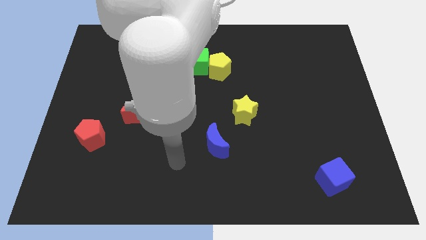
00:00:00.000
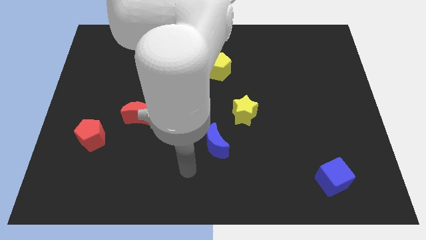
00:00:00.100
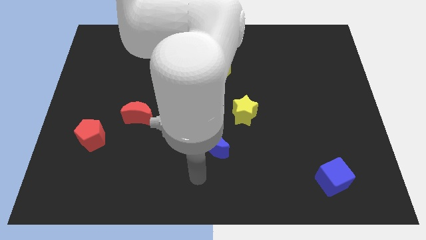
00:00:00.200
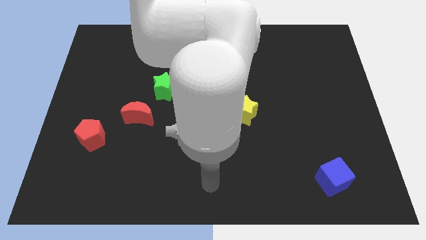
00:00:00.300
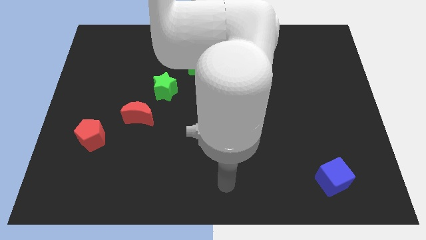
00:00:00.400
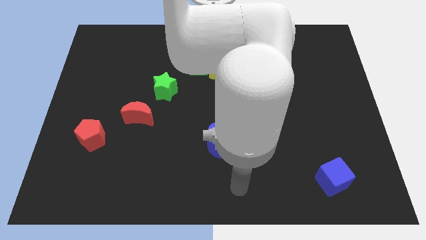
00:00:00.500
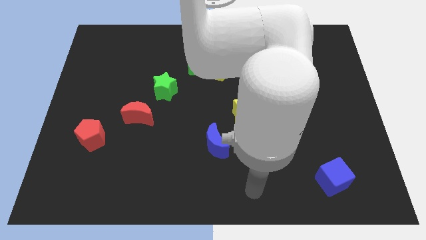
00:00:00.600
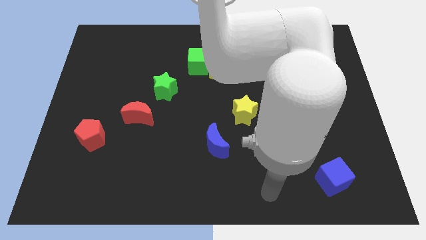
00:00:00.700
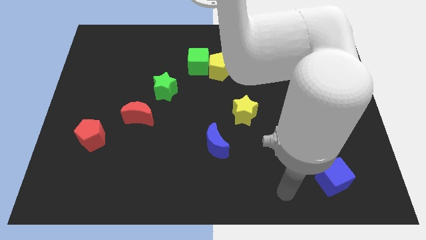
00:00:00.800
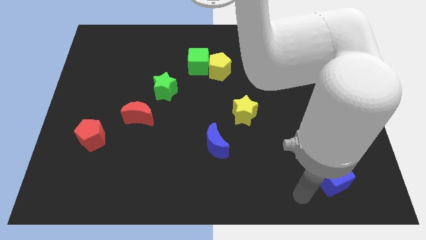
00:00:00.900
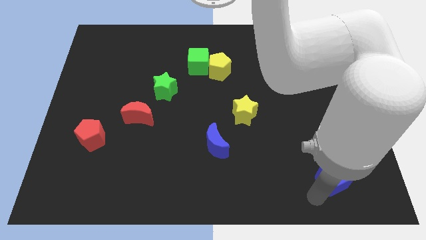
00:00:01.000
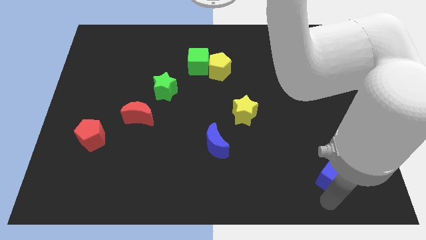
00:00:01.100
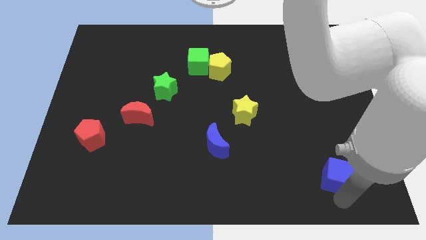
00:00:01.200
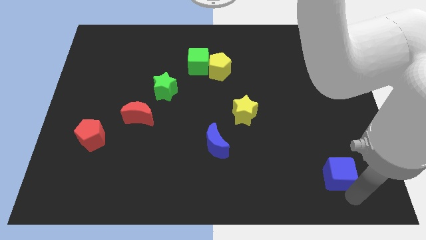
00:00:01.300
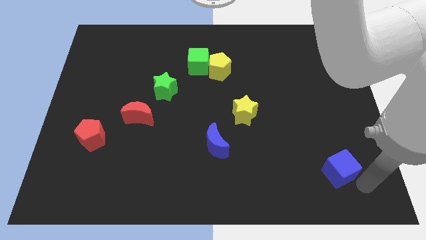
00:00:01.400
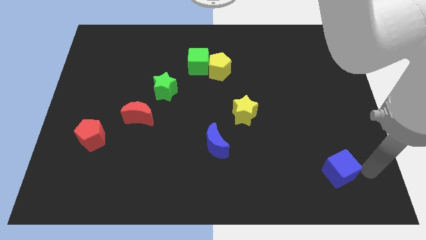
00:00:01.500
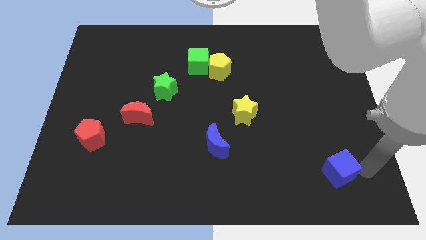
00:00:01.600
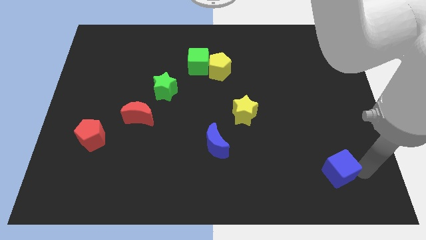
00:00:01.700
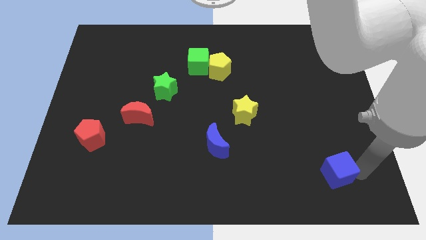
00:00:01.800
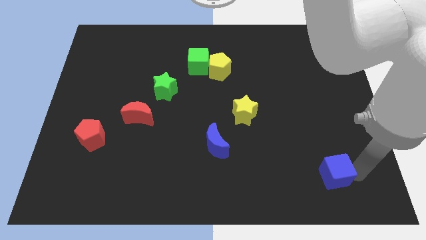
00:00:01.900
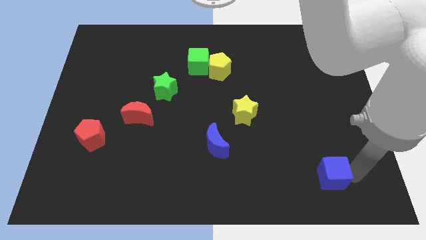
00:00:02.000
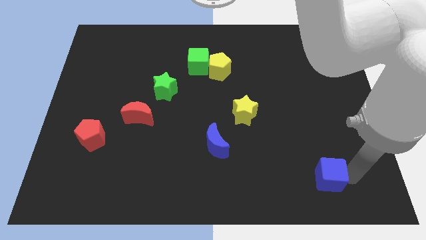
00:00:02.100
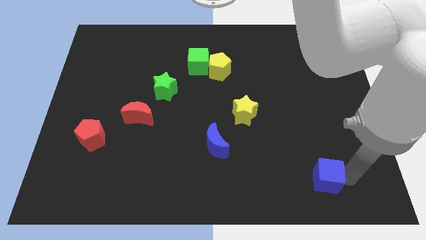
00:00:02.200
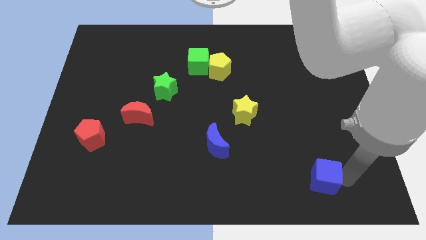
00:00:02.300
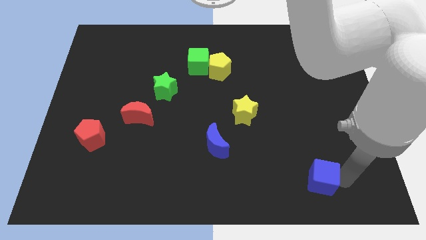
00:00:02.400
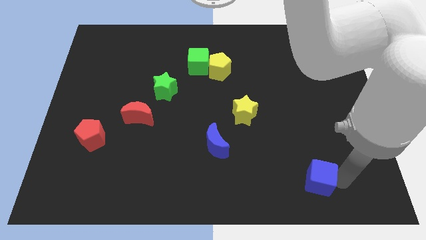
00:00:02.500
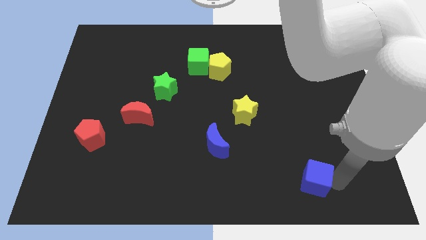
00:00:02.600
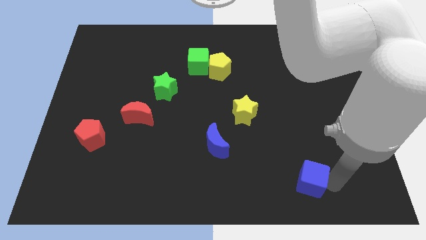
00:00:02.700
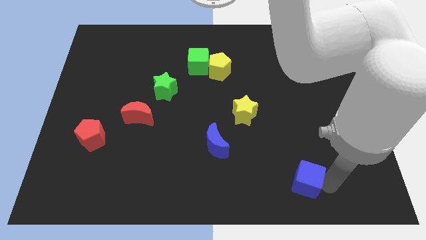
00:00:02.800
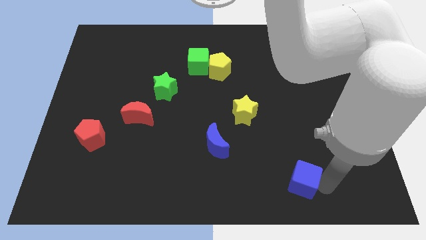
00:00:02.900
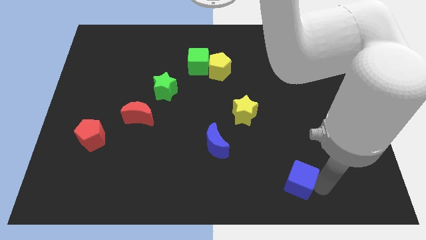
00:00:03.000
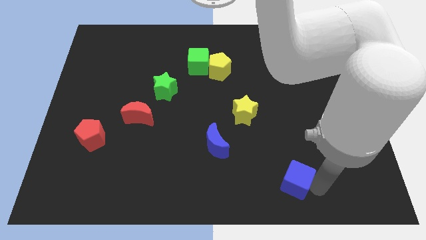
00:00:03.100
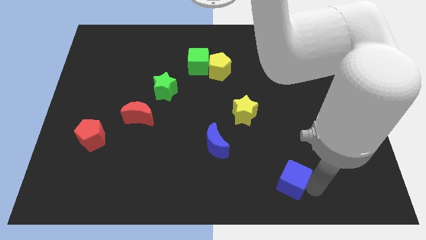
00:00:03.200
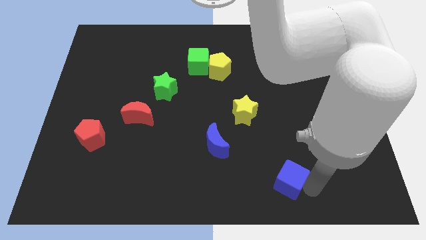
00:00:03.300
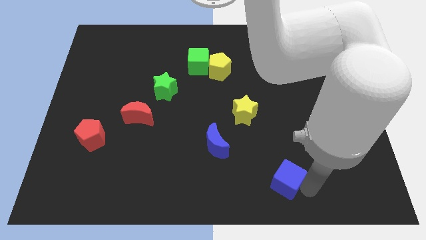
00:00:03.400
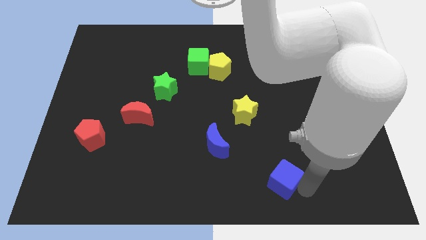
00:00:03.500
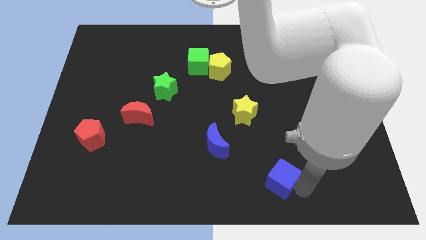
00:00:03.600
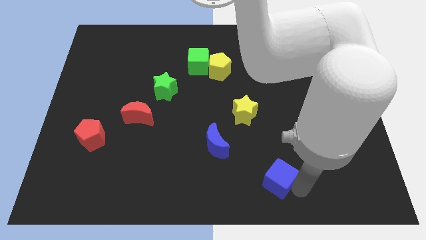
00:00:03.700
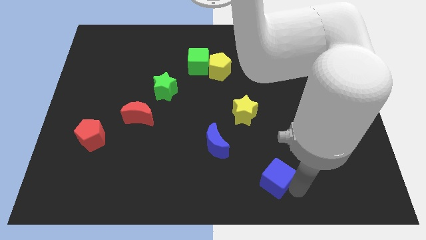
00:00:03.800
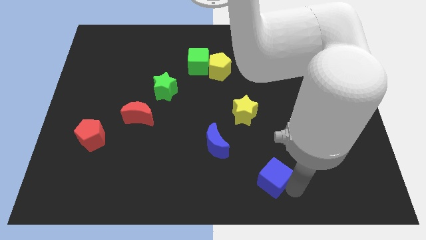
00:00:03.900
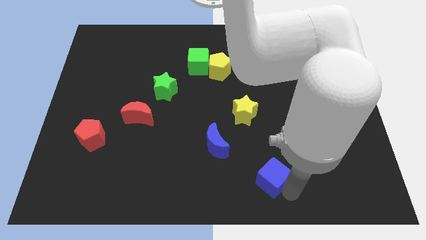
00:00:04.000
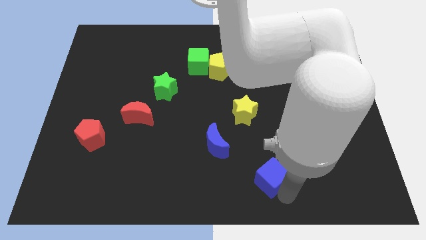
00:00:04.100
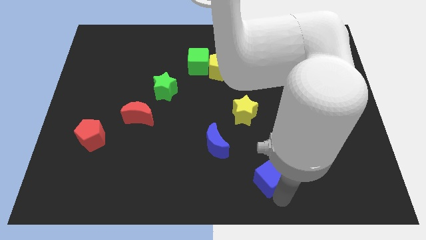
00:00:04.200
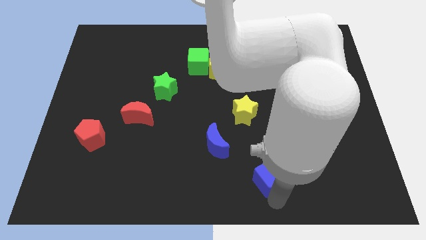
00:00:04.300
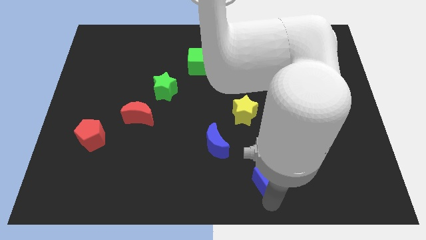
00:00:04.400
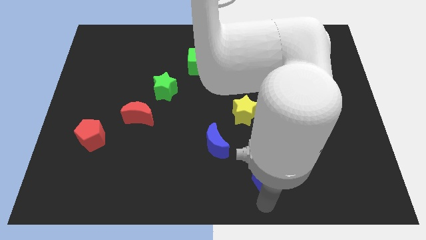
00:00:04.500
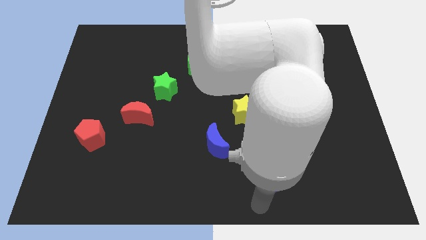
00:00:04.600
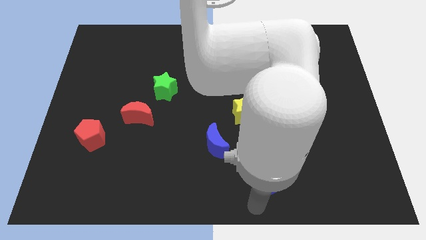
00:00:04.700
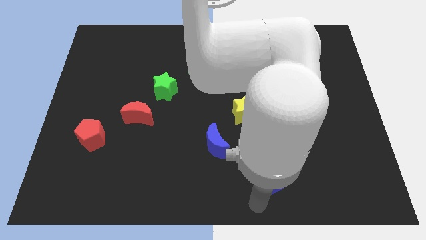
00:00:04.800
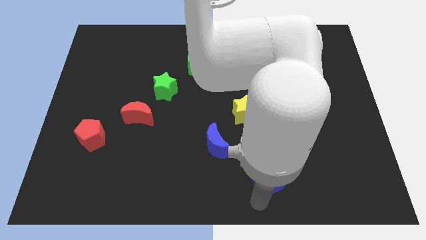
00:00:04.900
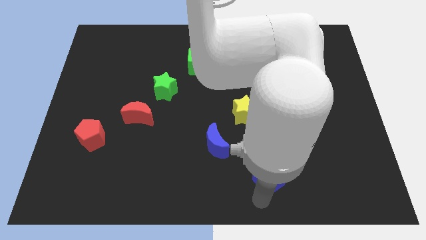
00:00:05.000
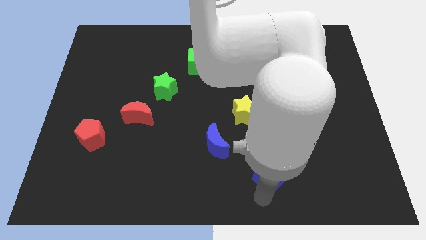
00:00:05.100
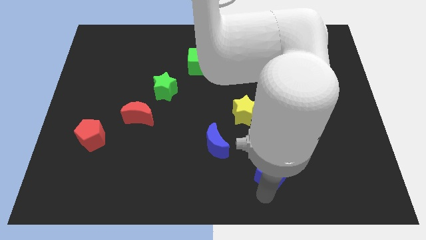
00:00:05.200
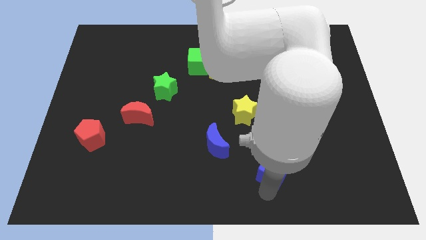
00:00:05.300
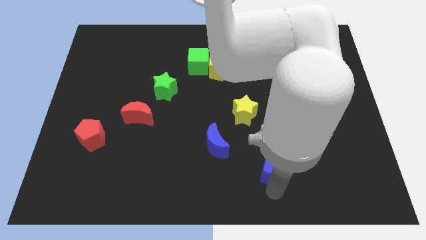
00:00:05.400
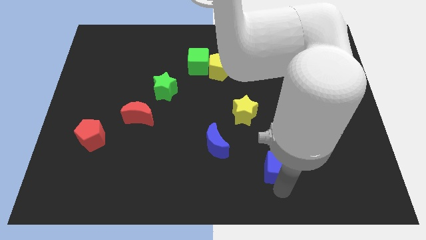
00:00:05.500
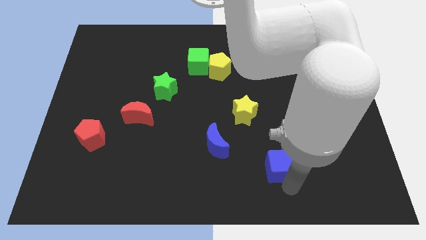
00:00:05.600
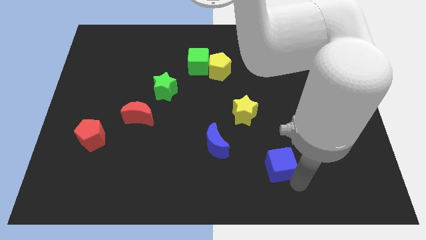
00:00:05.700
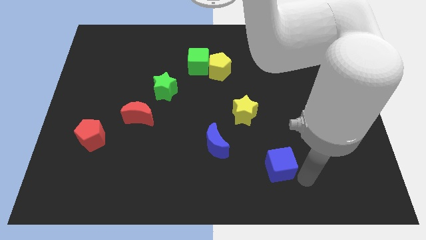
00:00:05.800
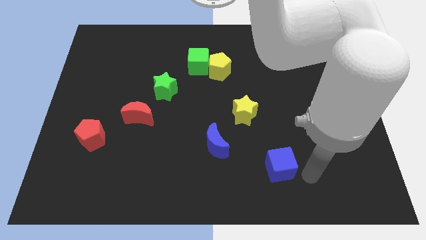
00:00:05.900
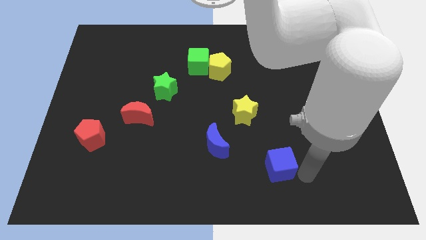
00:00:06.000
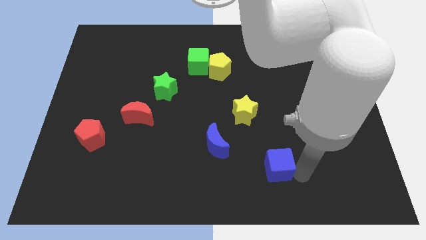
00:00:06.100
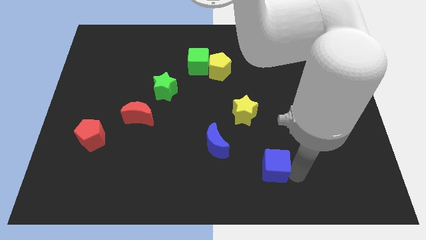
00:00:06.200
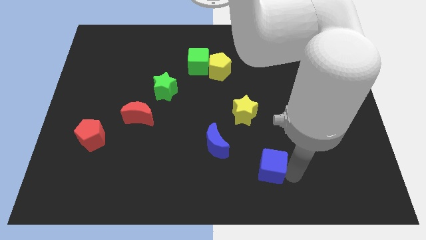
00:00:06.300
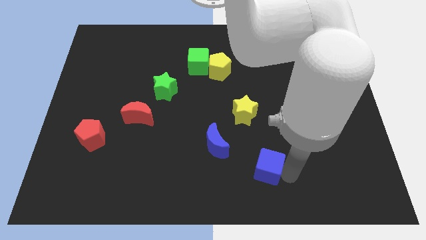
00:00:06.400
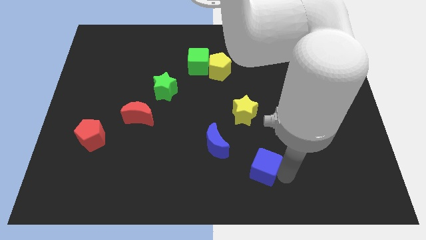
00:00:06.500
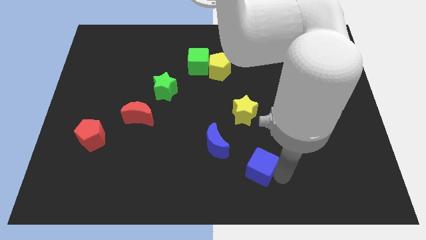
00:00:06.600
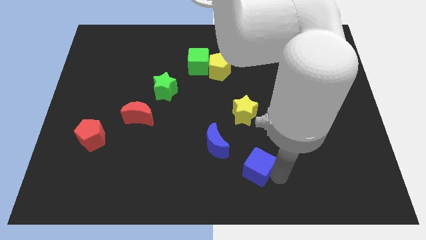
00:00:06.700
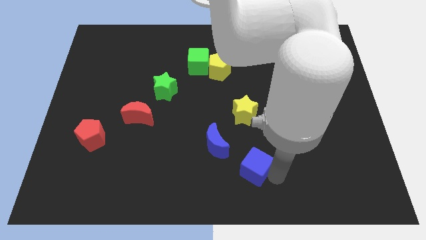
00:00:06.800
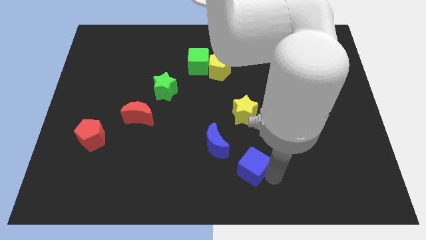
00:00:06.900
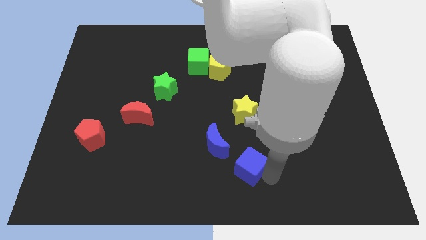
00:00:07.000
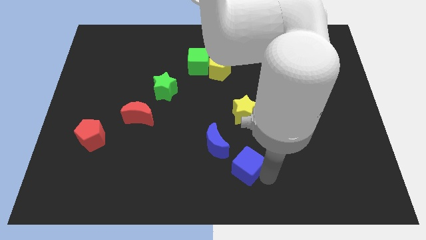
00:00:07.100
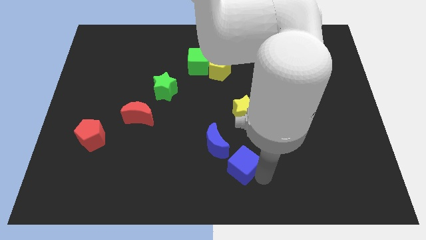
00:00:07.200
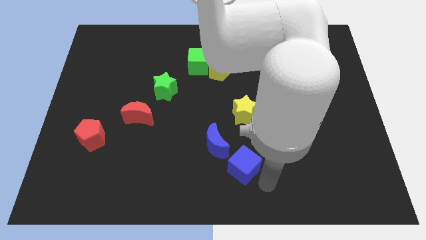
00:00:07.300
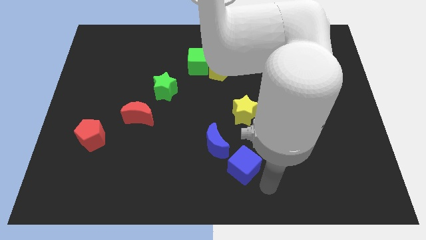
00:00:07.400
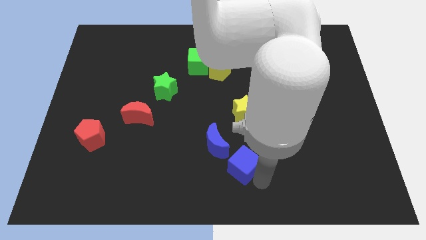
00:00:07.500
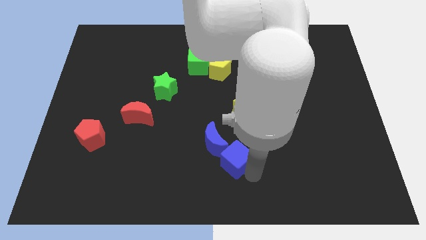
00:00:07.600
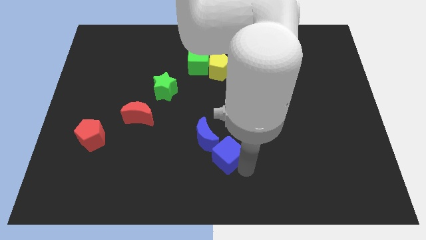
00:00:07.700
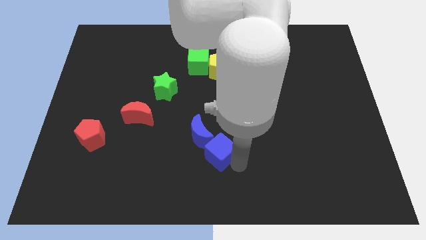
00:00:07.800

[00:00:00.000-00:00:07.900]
push the blue cube close to the blue moon
